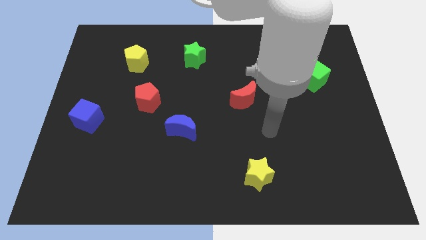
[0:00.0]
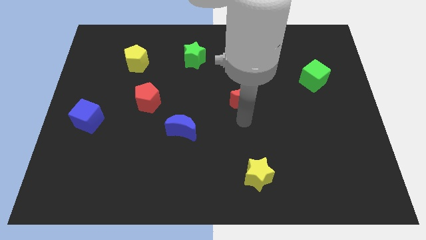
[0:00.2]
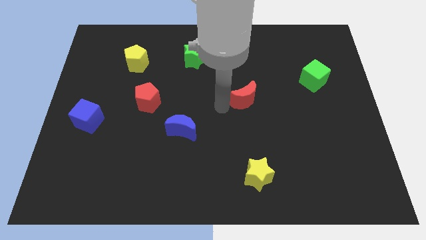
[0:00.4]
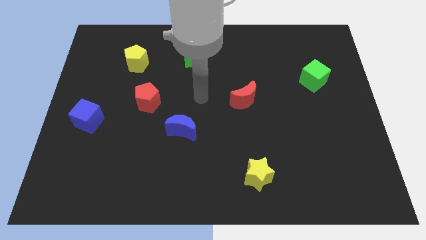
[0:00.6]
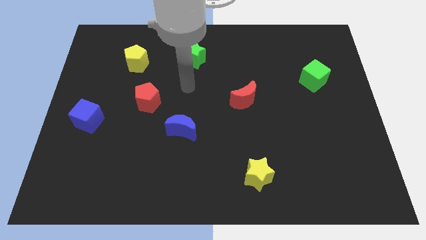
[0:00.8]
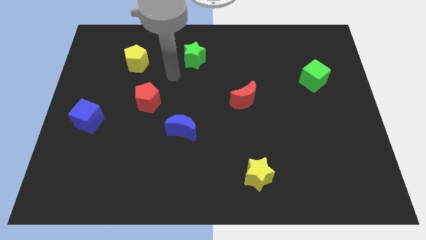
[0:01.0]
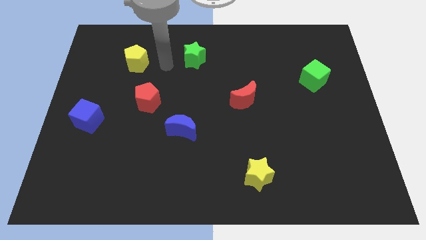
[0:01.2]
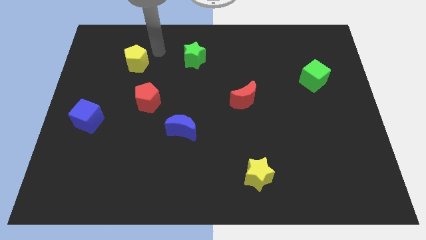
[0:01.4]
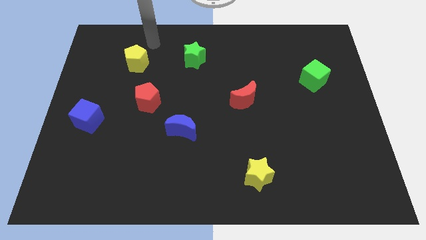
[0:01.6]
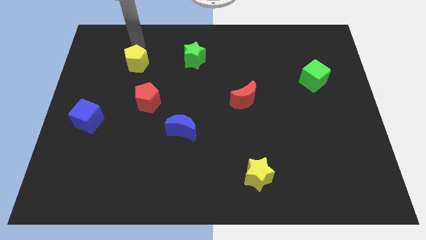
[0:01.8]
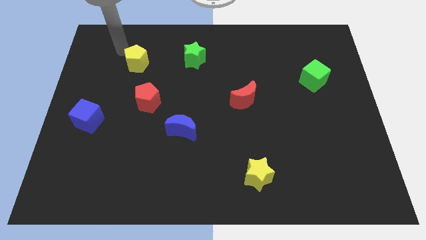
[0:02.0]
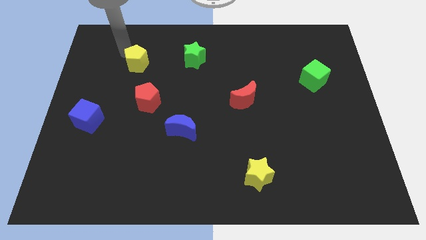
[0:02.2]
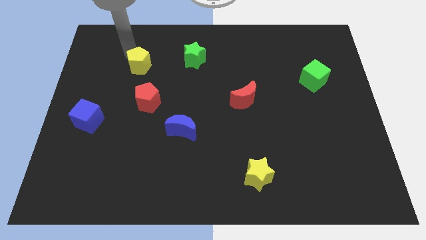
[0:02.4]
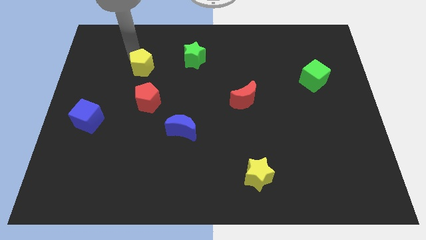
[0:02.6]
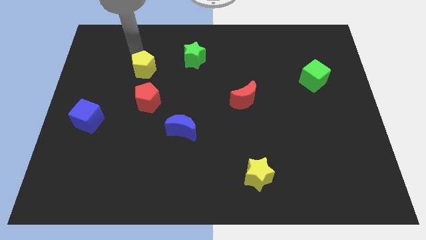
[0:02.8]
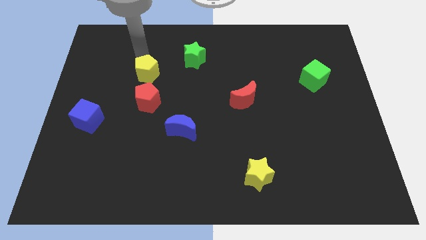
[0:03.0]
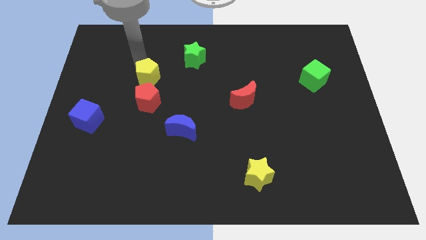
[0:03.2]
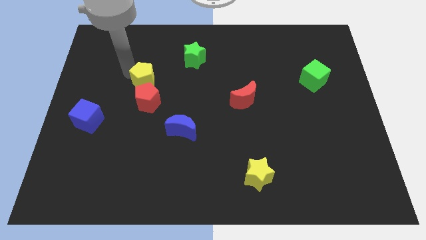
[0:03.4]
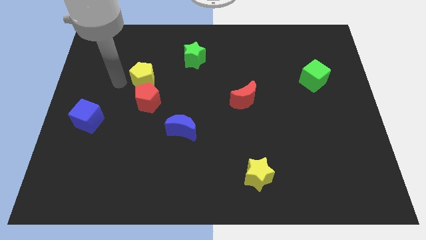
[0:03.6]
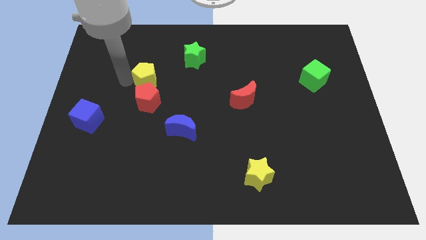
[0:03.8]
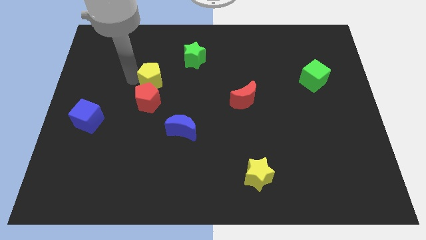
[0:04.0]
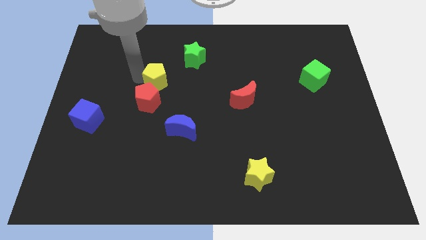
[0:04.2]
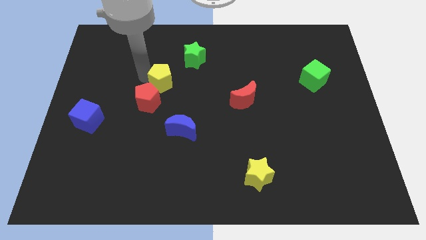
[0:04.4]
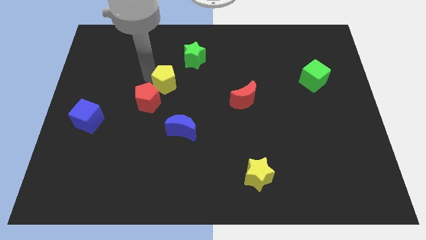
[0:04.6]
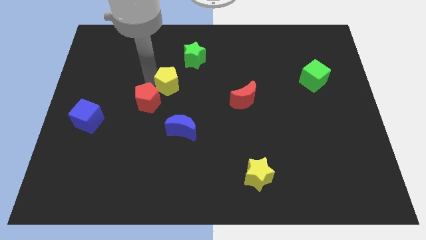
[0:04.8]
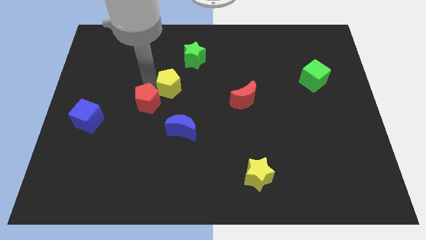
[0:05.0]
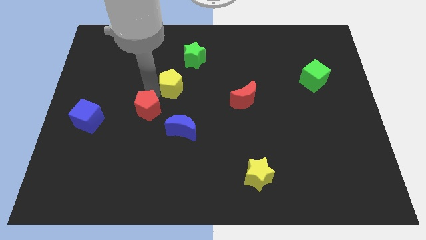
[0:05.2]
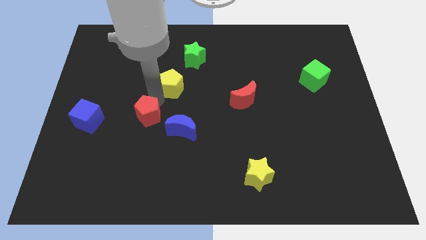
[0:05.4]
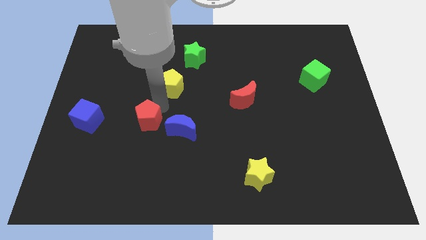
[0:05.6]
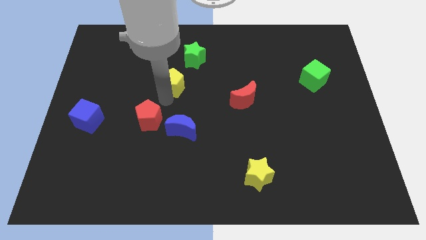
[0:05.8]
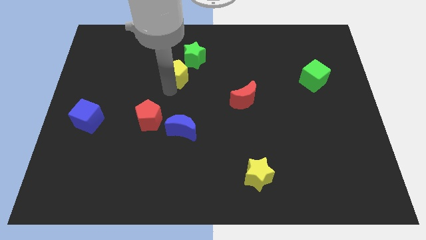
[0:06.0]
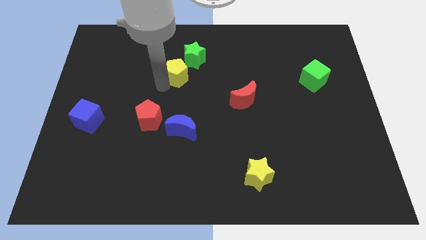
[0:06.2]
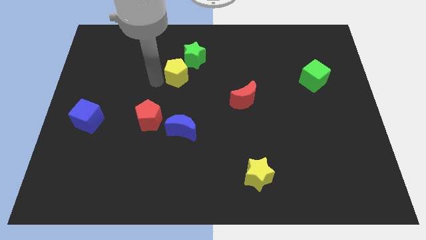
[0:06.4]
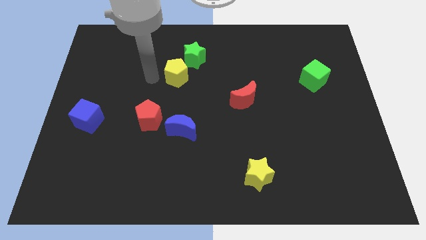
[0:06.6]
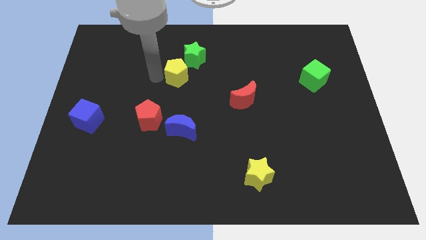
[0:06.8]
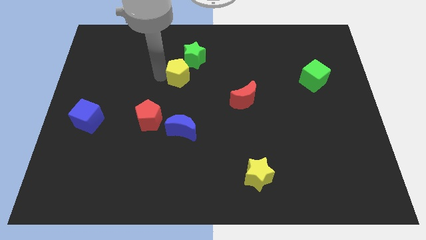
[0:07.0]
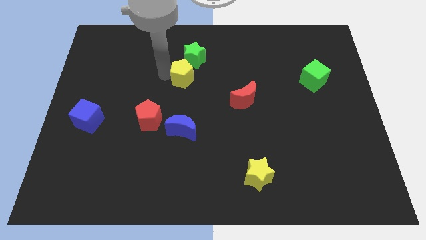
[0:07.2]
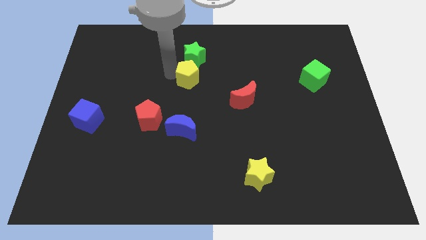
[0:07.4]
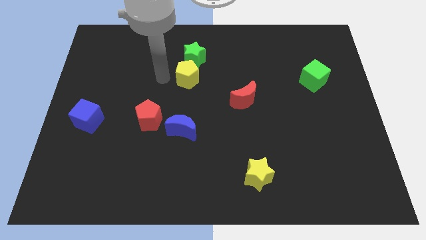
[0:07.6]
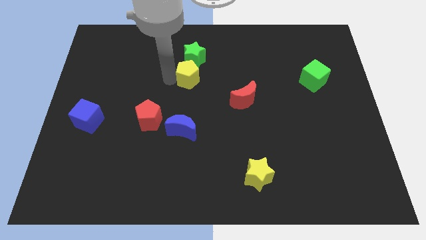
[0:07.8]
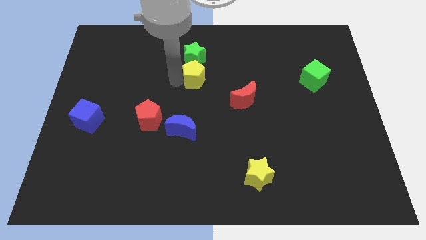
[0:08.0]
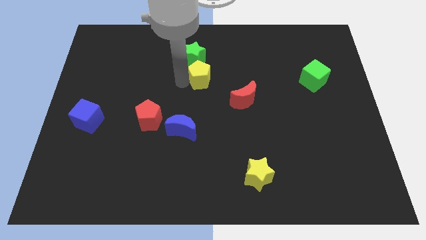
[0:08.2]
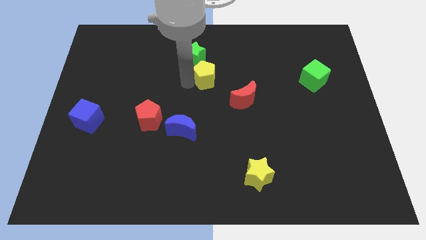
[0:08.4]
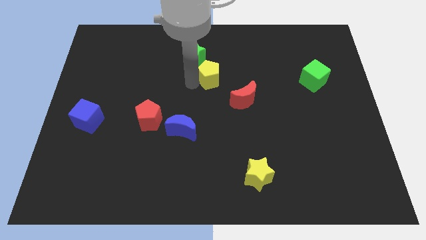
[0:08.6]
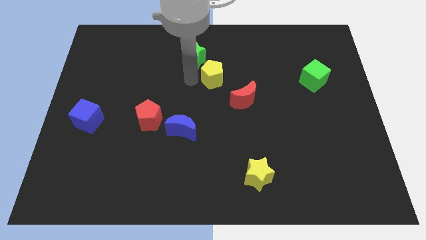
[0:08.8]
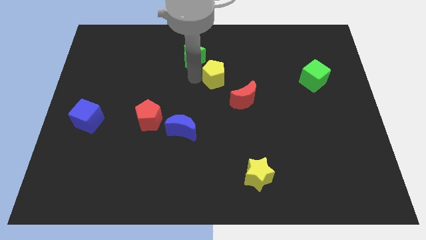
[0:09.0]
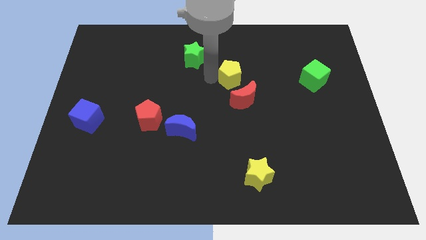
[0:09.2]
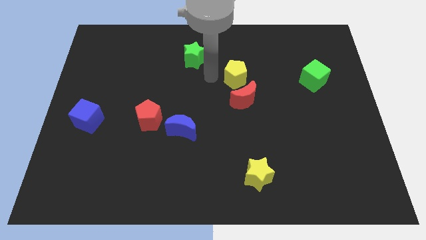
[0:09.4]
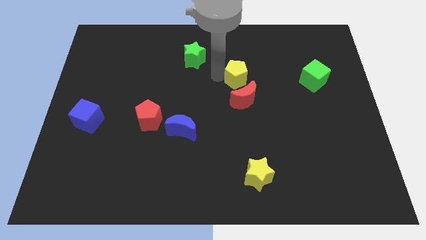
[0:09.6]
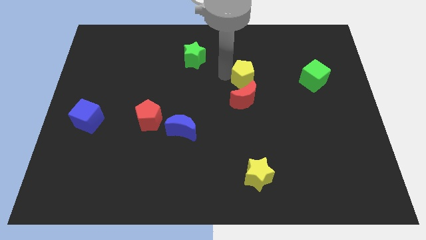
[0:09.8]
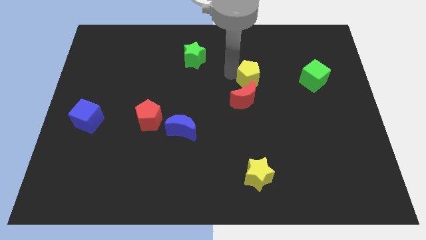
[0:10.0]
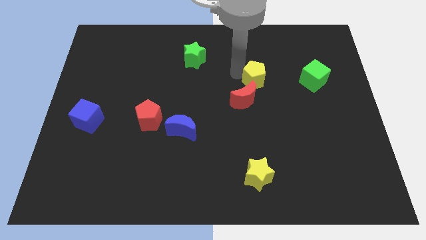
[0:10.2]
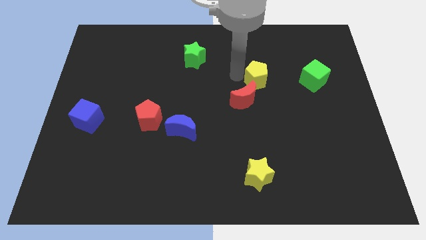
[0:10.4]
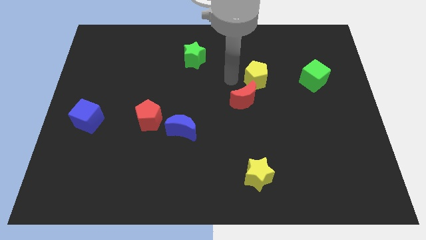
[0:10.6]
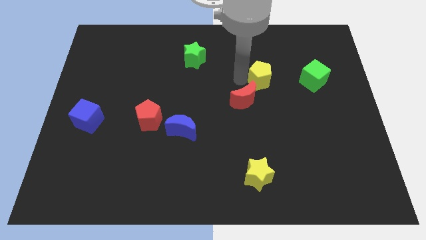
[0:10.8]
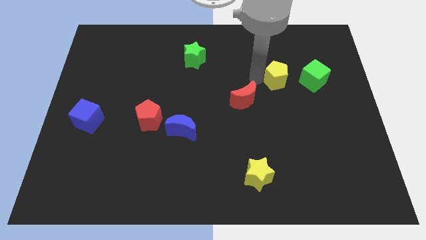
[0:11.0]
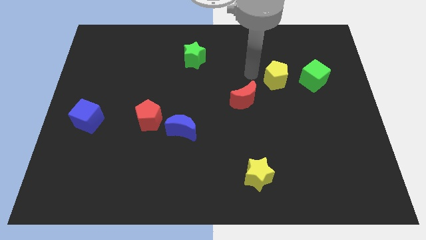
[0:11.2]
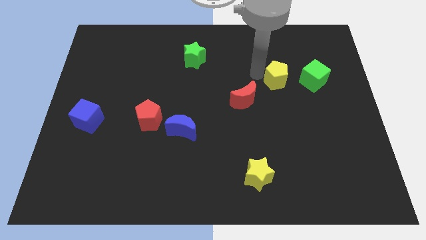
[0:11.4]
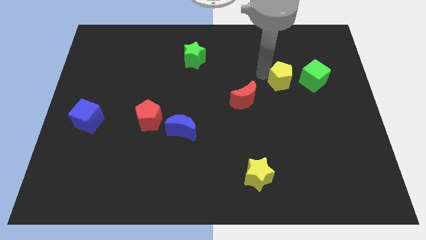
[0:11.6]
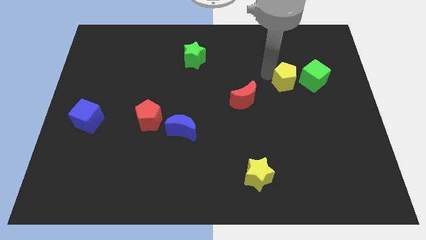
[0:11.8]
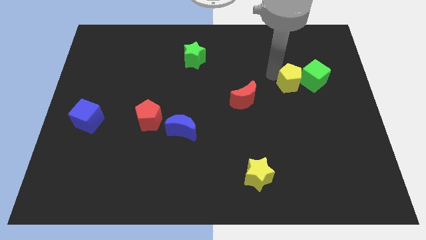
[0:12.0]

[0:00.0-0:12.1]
push the yellow pentagon towards the green cube
